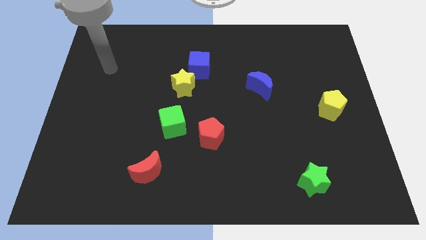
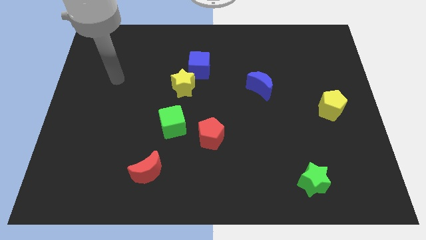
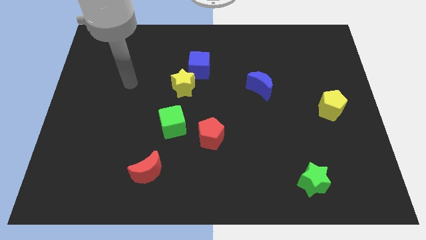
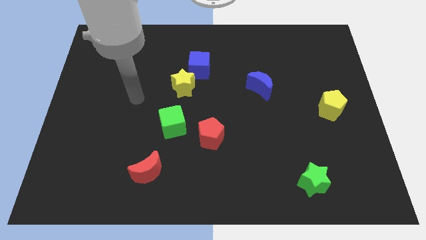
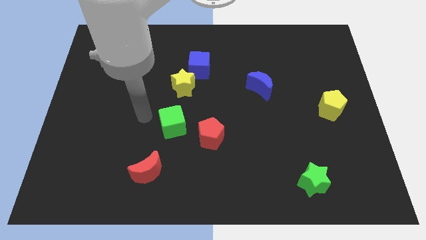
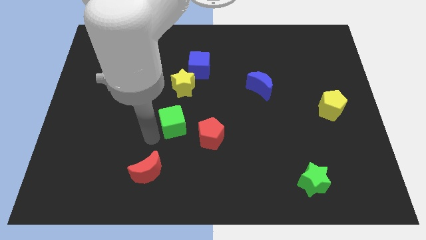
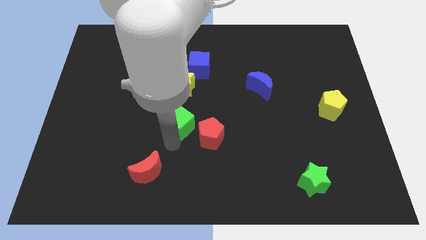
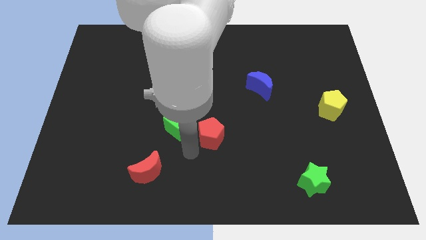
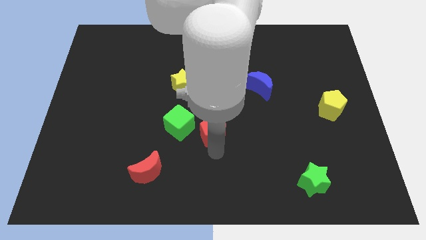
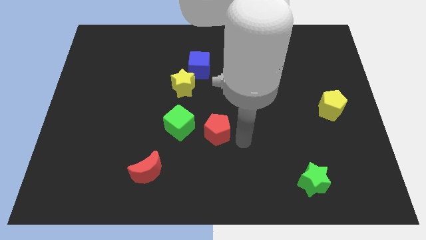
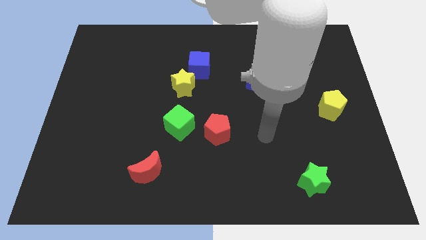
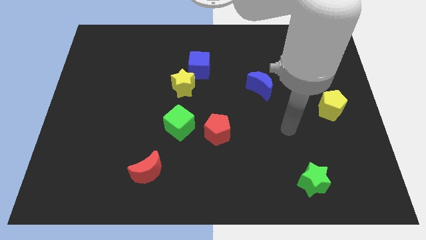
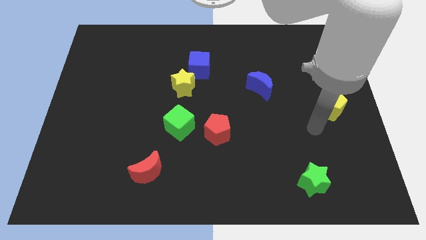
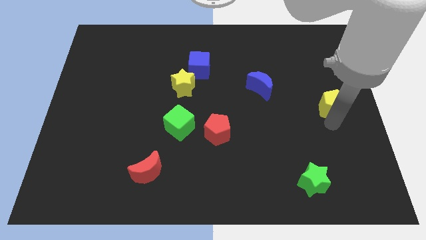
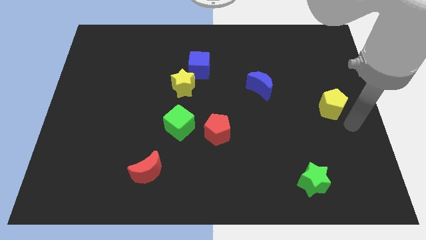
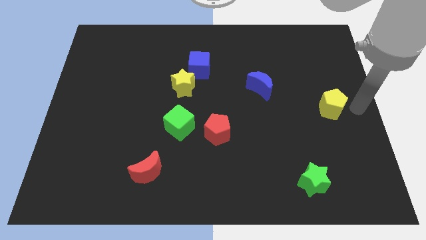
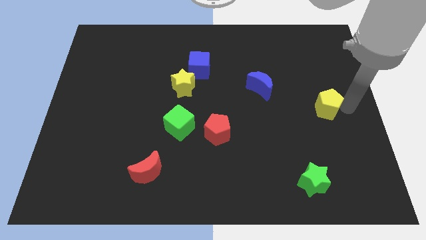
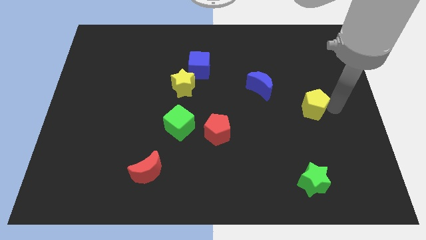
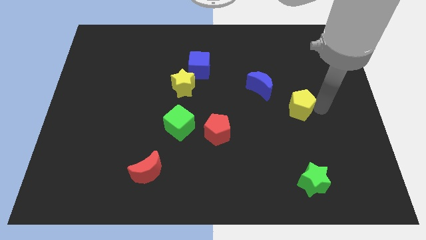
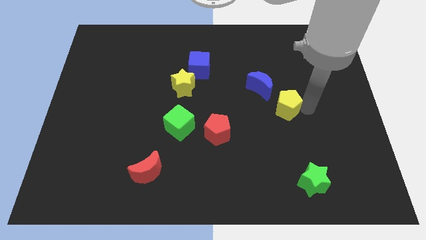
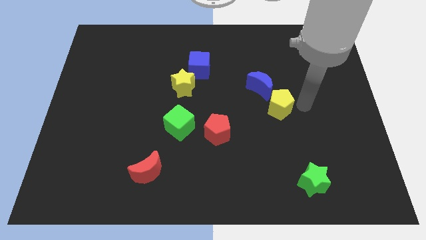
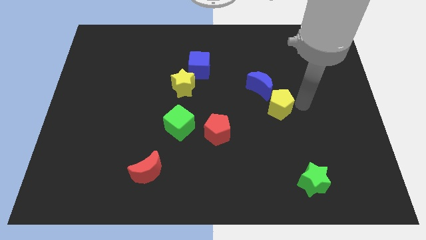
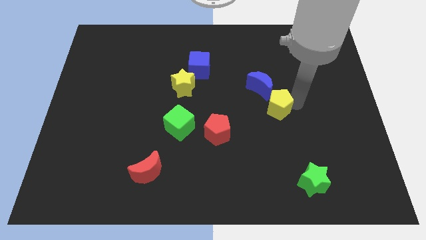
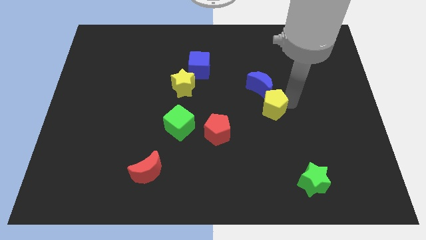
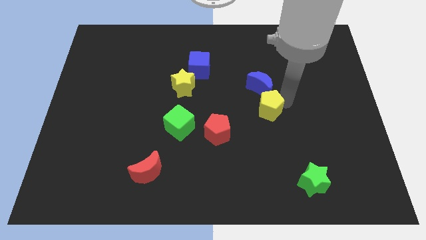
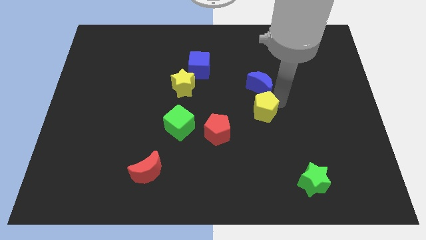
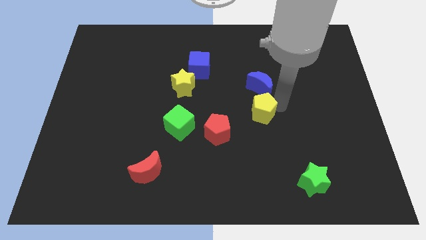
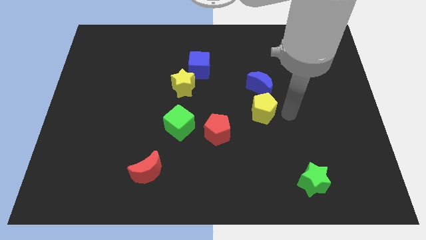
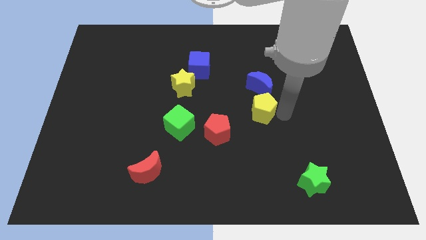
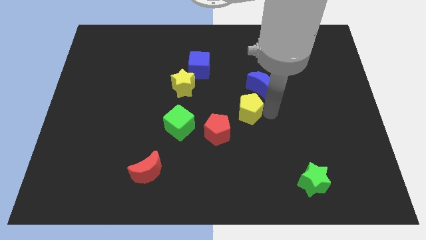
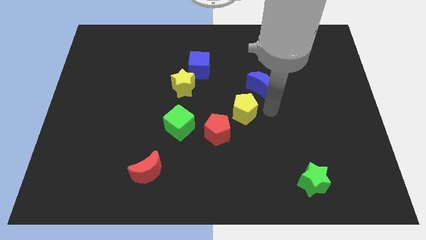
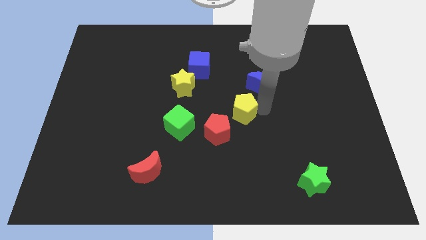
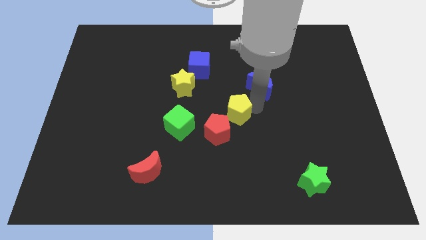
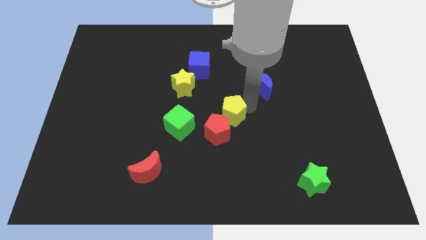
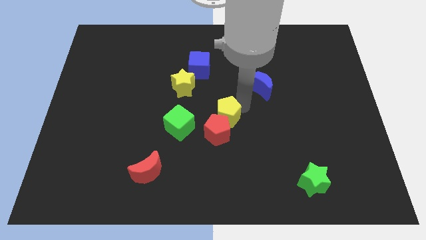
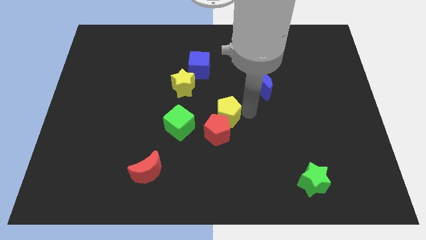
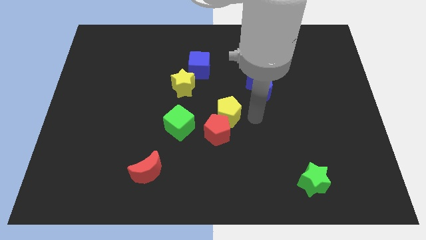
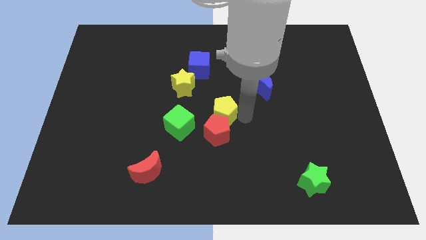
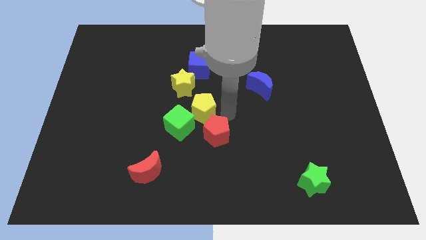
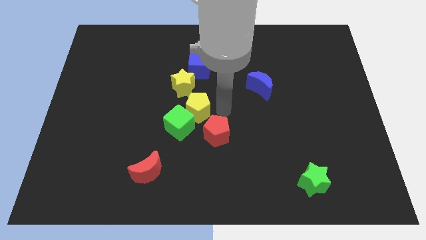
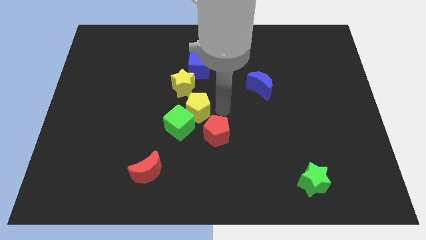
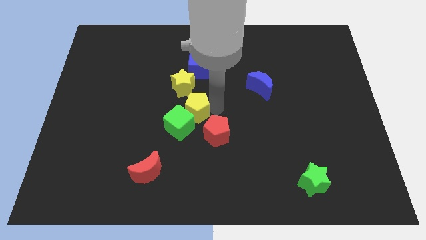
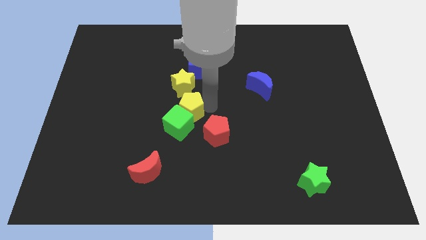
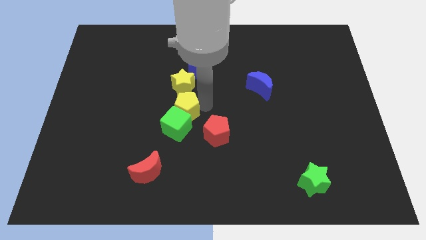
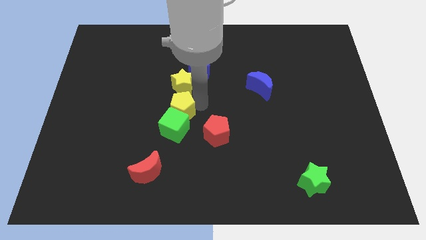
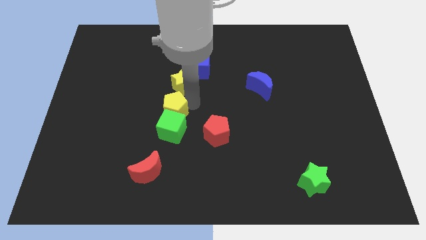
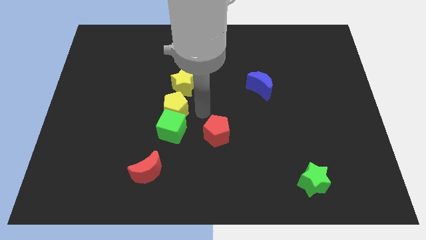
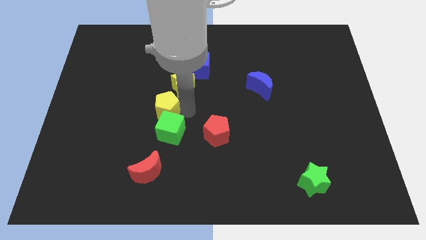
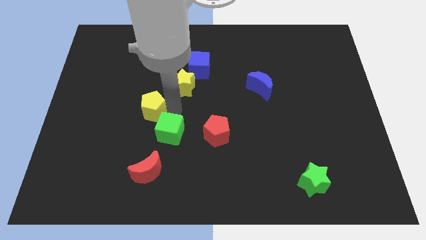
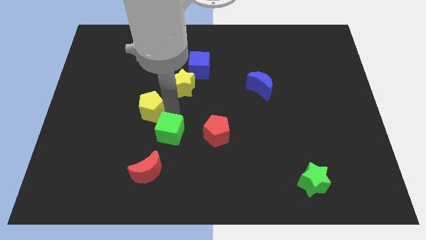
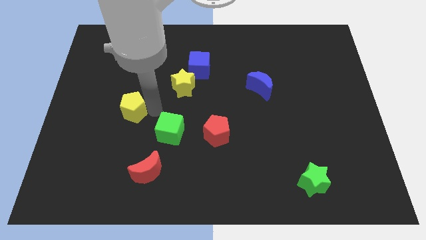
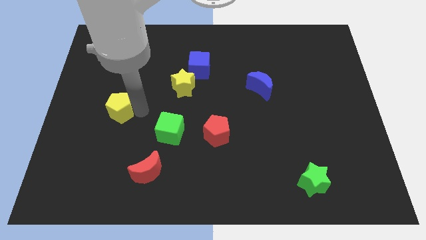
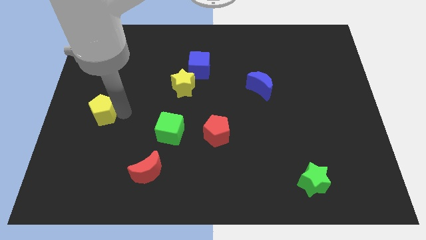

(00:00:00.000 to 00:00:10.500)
push the yellow pentagon to the left side
